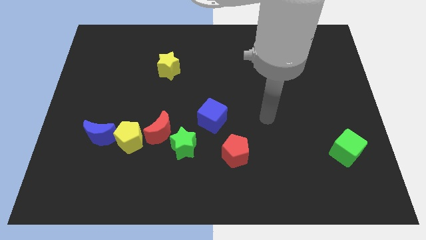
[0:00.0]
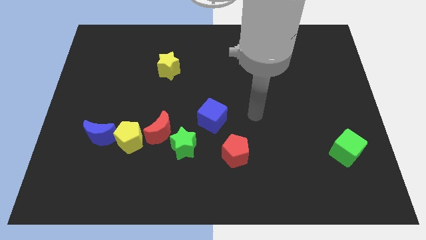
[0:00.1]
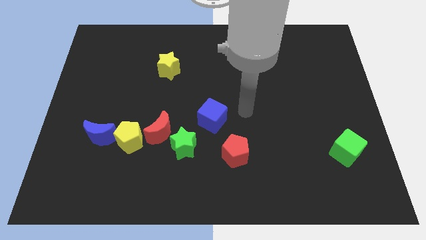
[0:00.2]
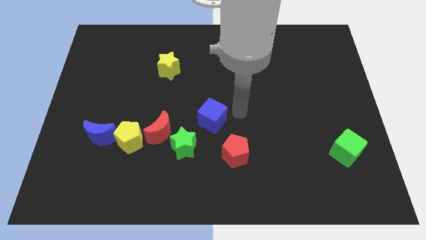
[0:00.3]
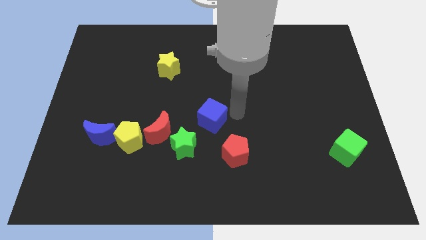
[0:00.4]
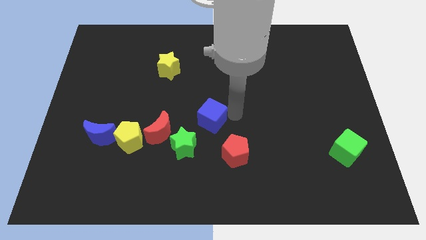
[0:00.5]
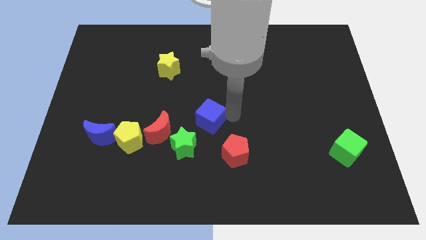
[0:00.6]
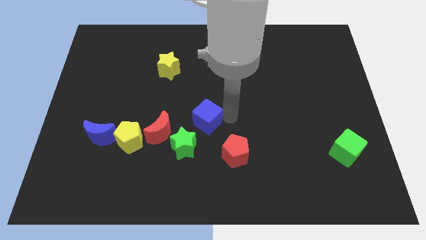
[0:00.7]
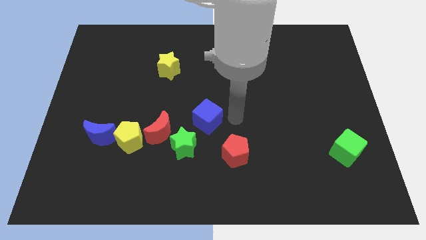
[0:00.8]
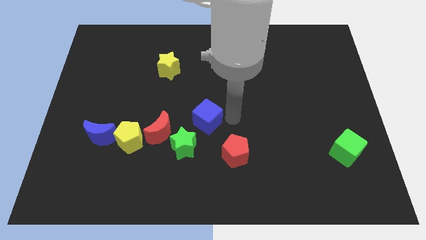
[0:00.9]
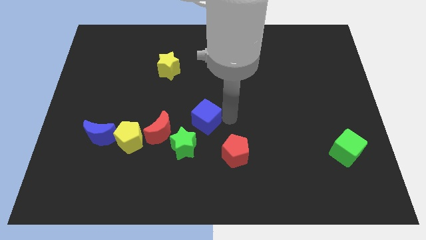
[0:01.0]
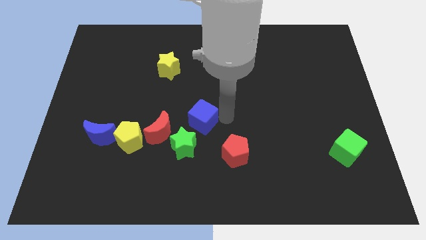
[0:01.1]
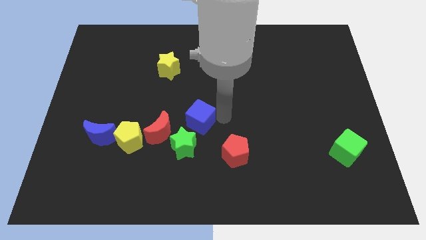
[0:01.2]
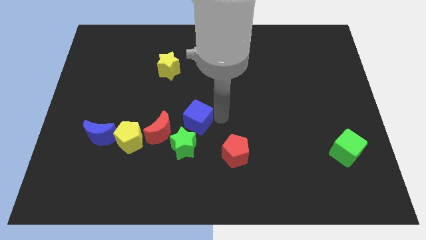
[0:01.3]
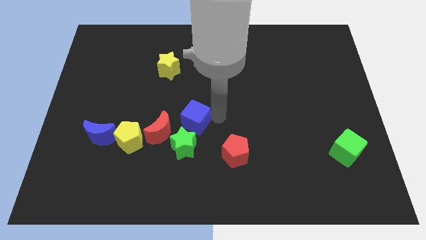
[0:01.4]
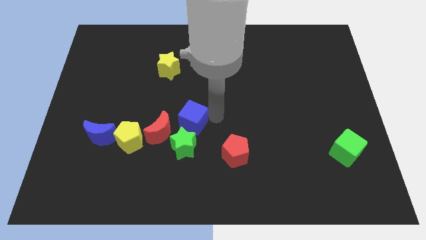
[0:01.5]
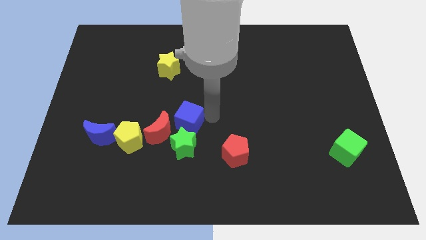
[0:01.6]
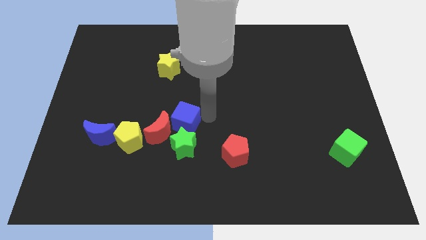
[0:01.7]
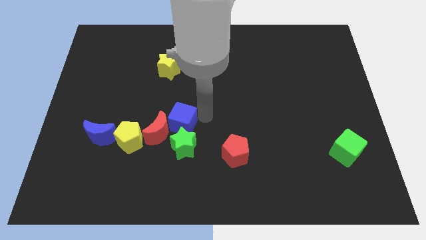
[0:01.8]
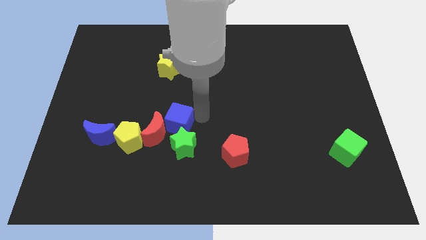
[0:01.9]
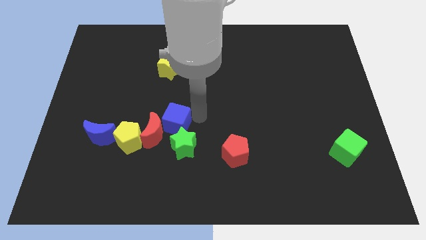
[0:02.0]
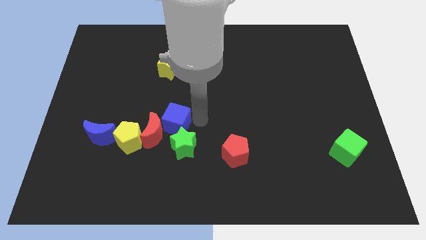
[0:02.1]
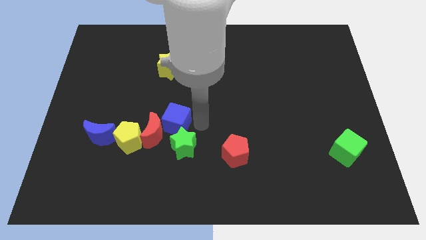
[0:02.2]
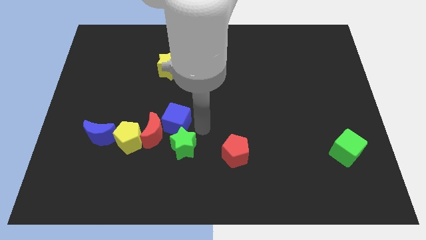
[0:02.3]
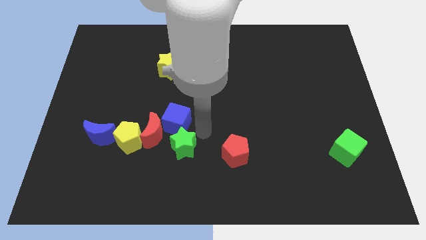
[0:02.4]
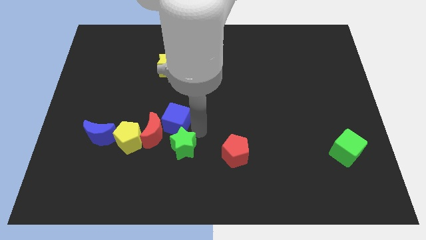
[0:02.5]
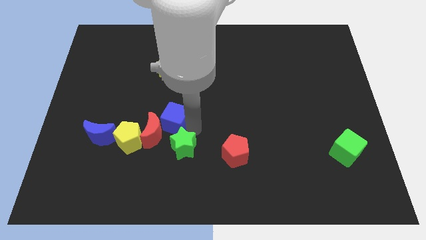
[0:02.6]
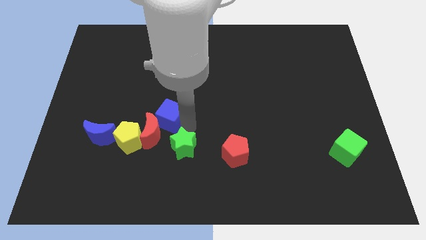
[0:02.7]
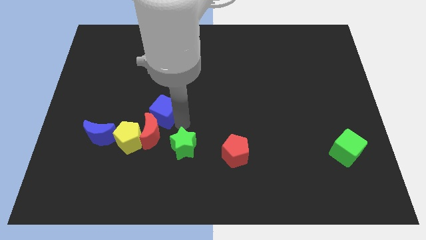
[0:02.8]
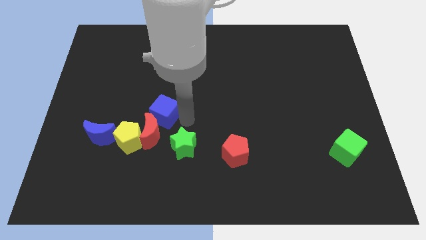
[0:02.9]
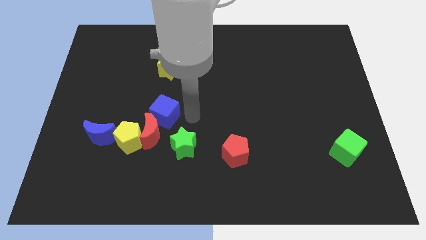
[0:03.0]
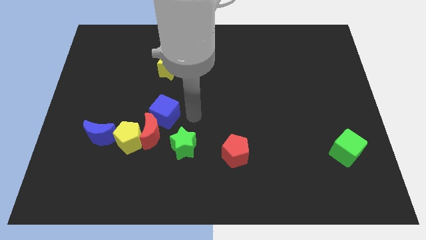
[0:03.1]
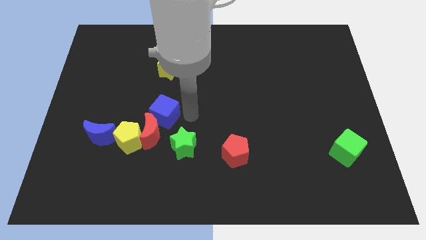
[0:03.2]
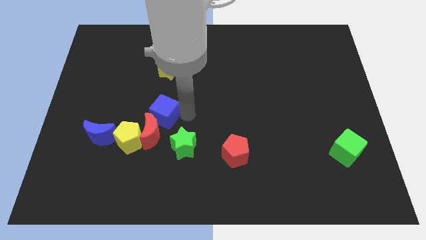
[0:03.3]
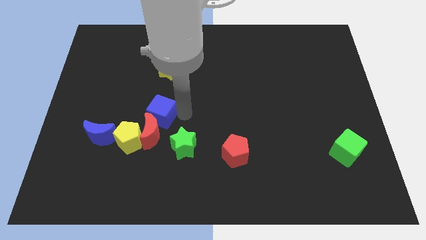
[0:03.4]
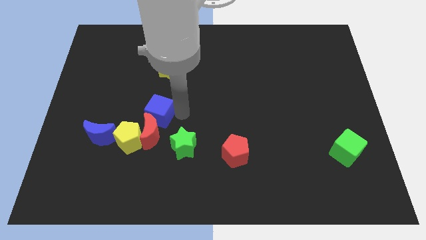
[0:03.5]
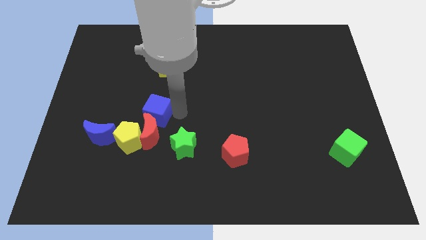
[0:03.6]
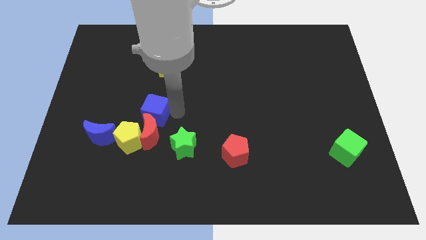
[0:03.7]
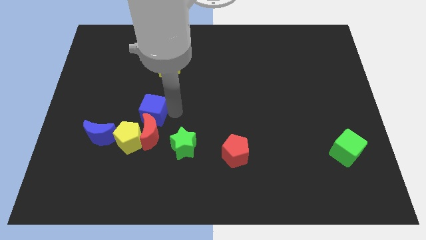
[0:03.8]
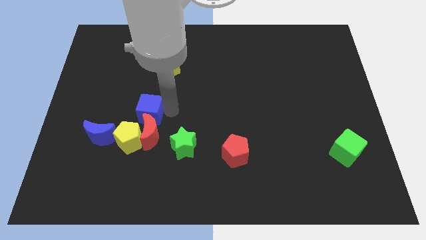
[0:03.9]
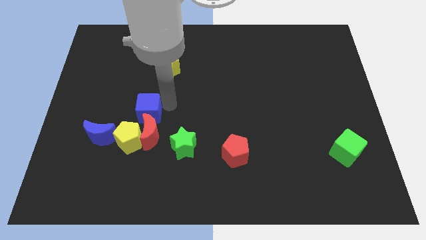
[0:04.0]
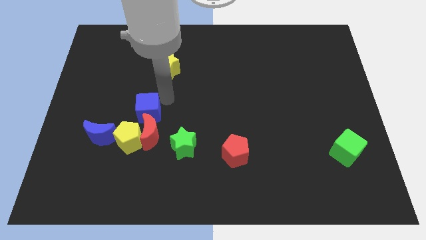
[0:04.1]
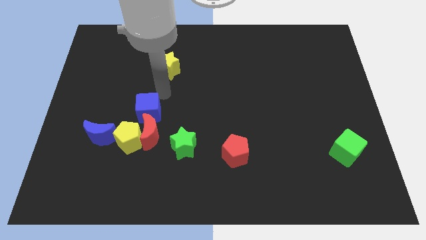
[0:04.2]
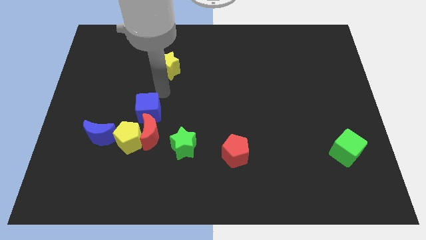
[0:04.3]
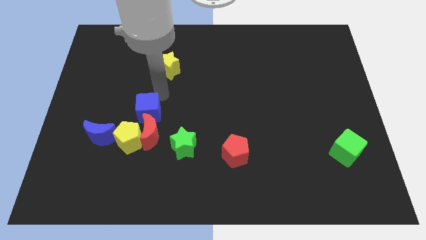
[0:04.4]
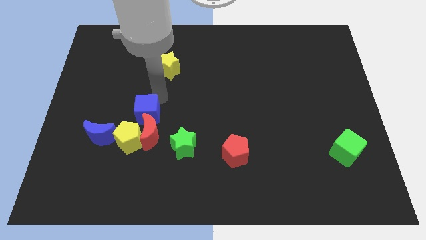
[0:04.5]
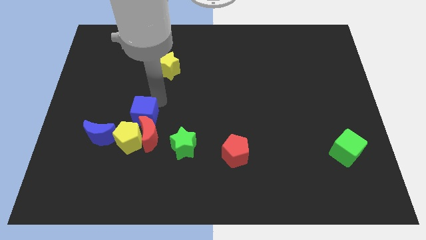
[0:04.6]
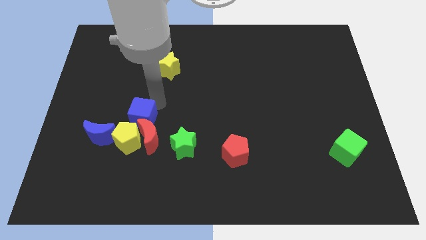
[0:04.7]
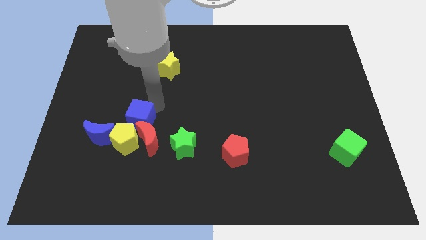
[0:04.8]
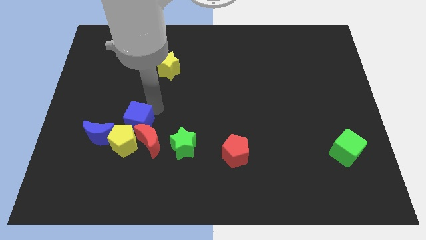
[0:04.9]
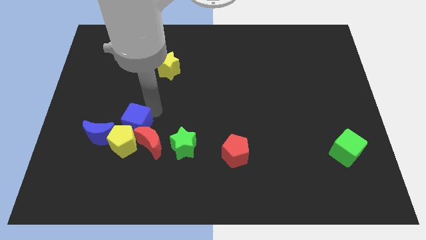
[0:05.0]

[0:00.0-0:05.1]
slide the blue cube next to the yellow pentagon

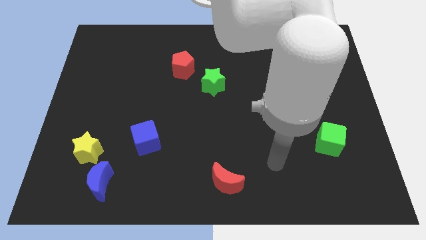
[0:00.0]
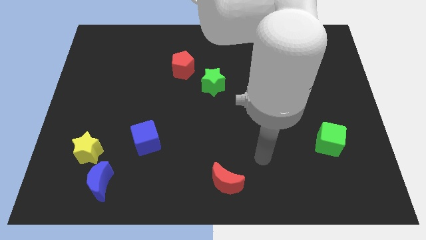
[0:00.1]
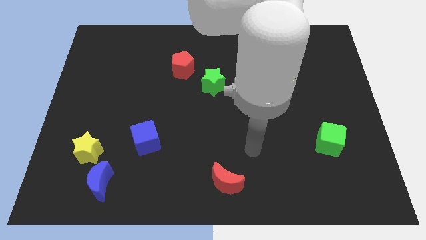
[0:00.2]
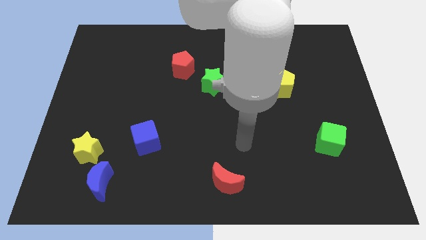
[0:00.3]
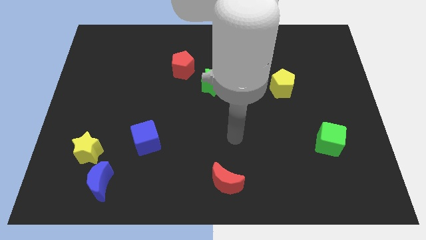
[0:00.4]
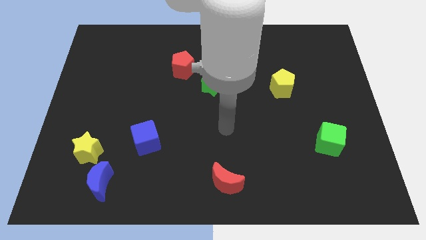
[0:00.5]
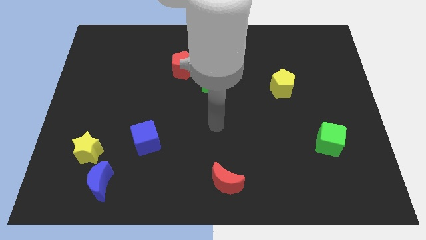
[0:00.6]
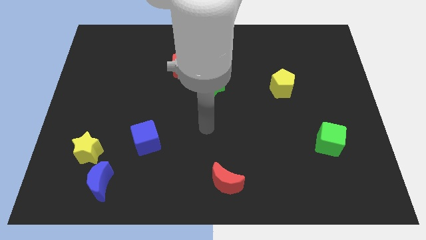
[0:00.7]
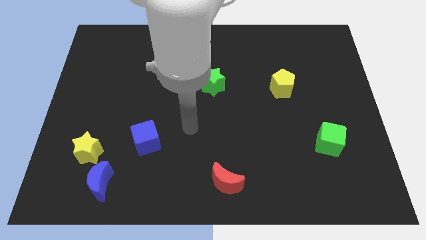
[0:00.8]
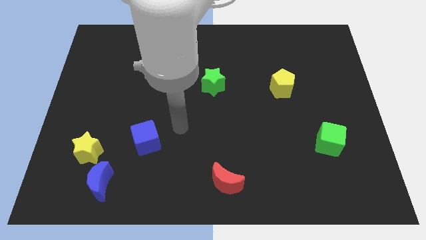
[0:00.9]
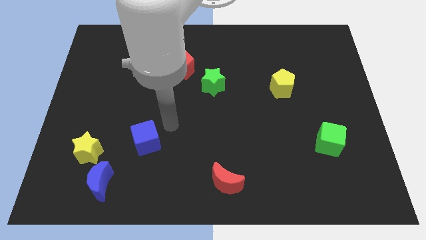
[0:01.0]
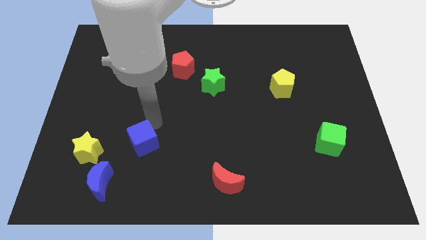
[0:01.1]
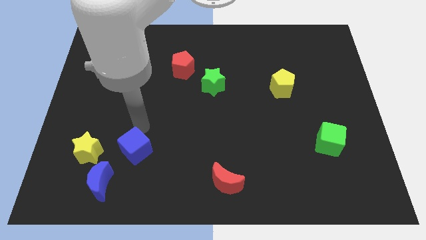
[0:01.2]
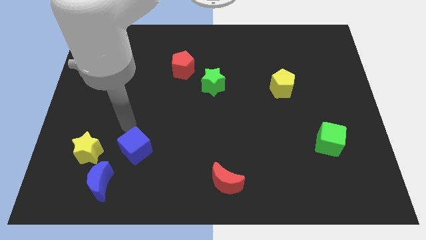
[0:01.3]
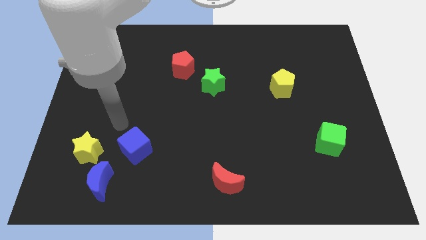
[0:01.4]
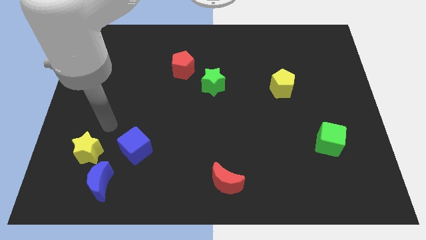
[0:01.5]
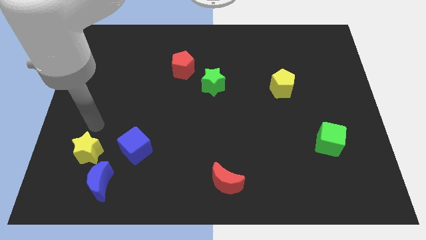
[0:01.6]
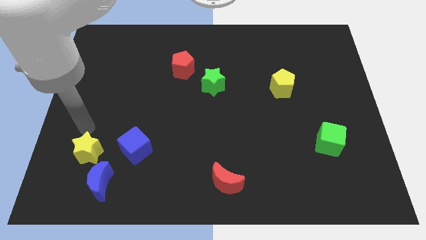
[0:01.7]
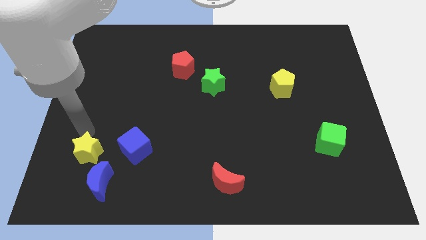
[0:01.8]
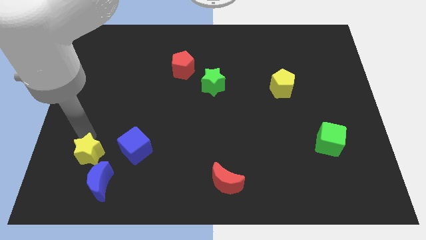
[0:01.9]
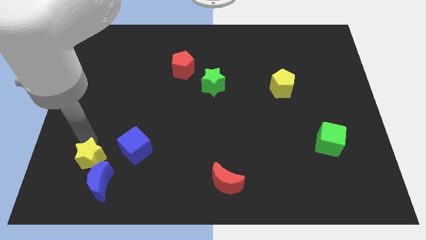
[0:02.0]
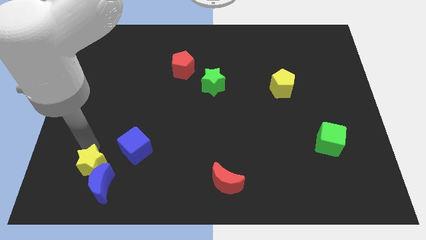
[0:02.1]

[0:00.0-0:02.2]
push the yellow star close to the blue moon
